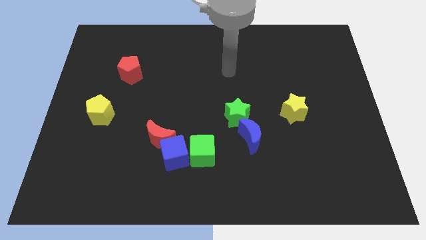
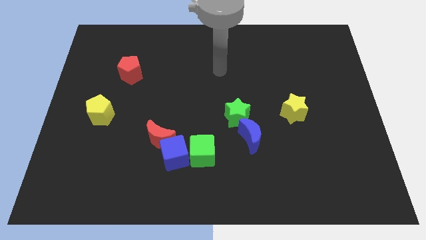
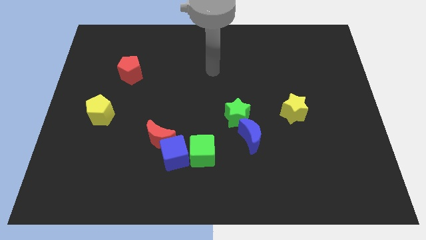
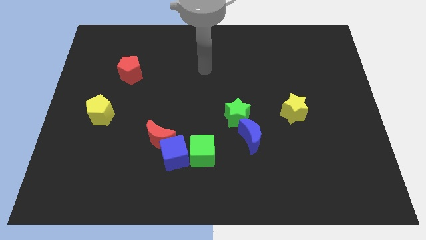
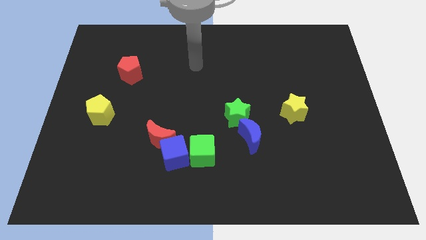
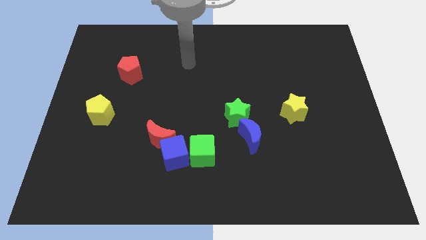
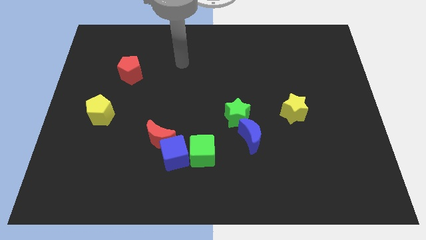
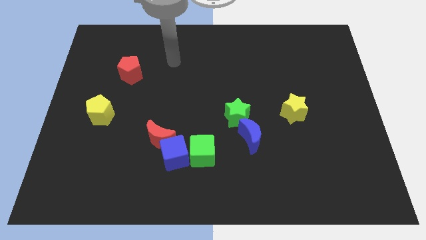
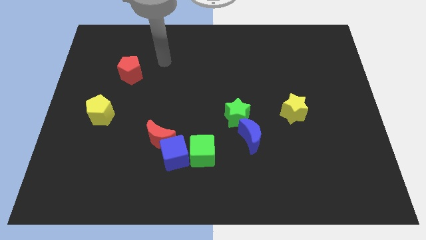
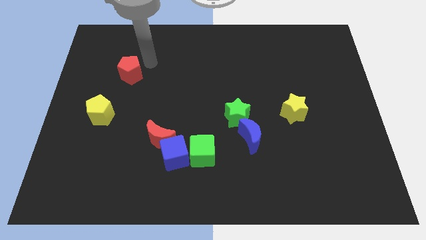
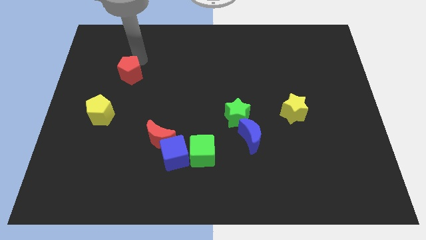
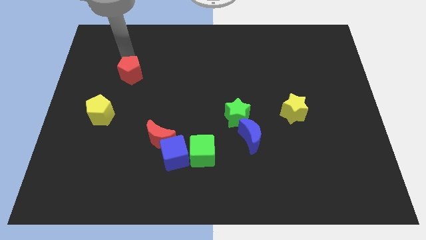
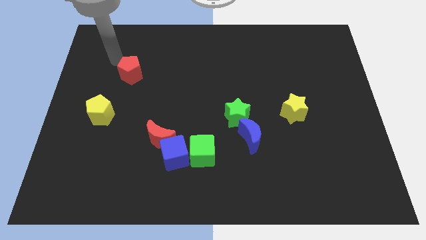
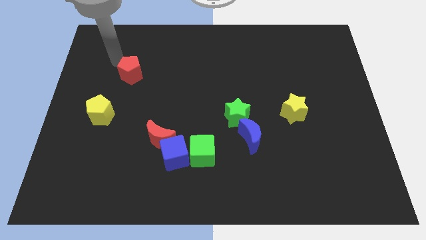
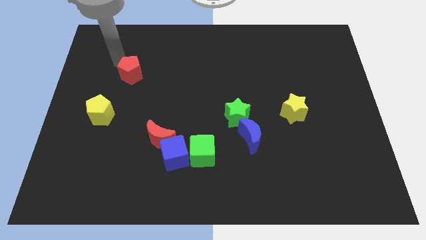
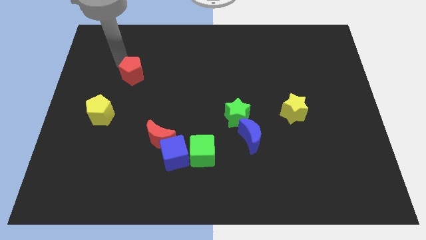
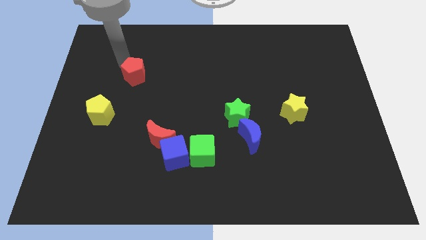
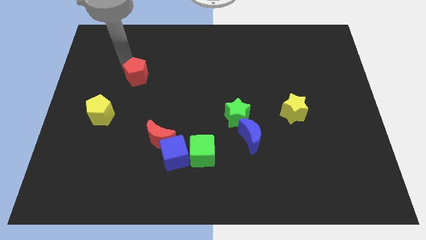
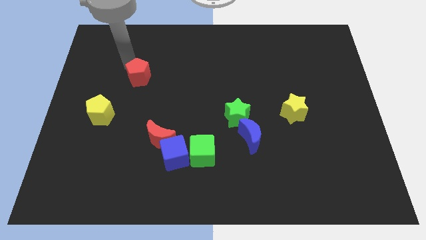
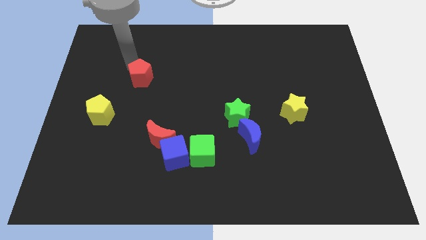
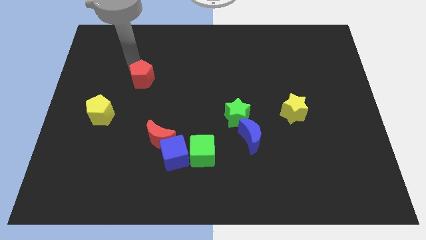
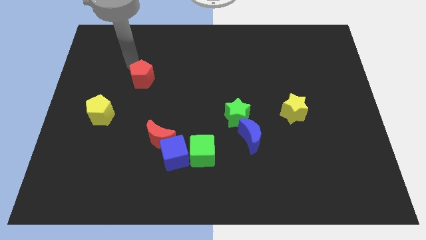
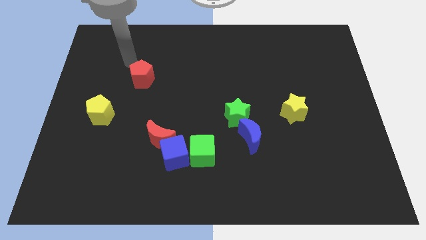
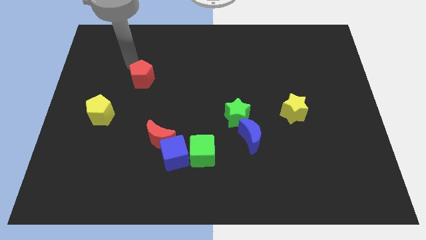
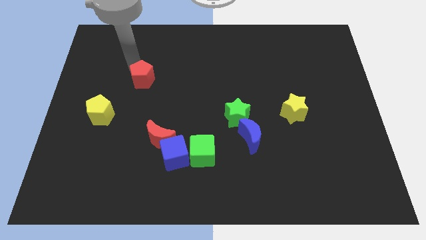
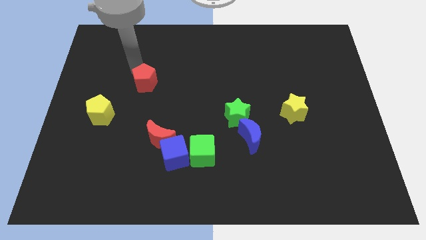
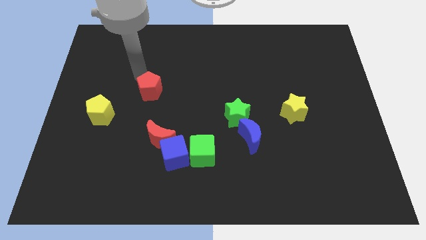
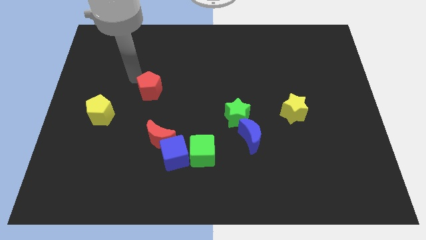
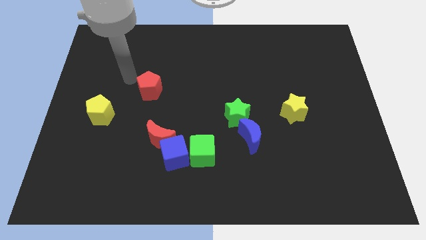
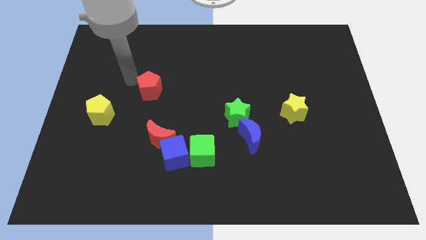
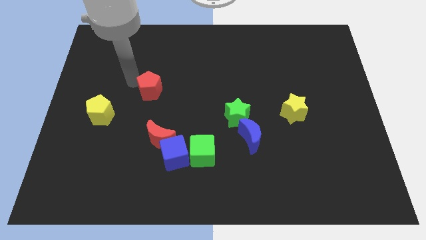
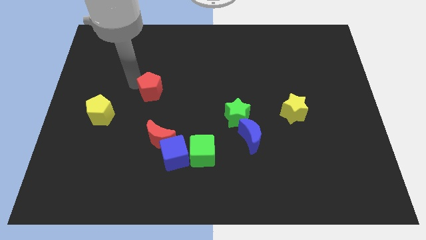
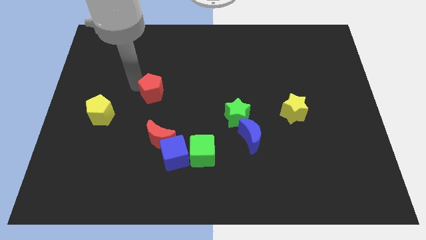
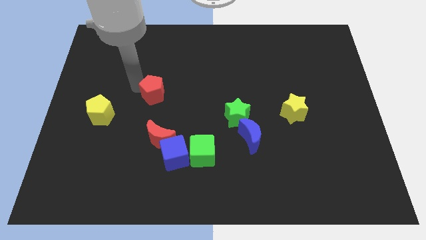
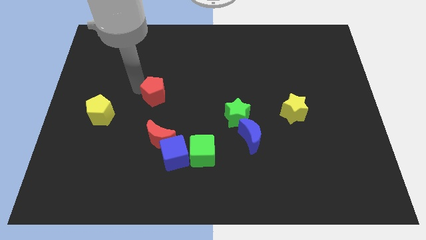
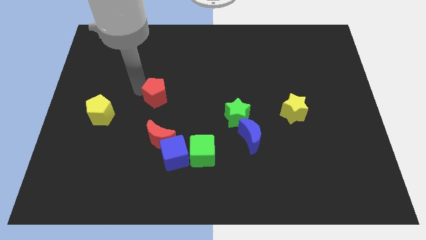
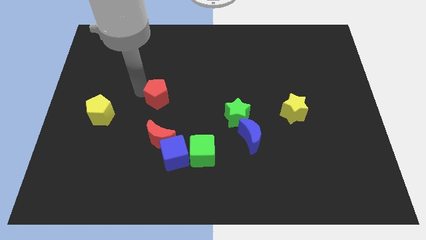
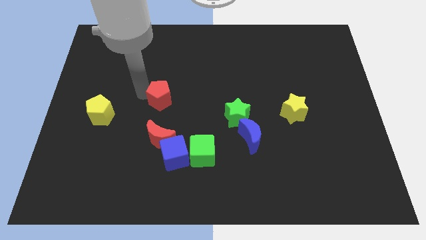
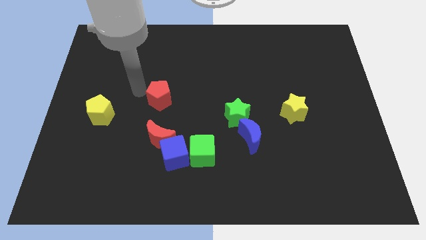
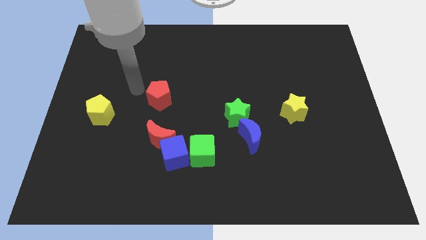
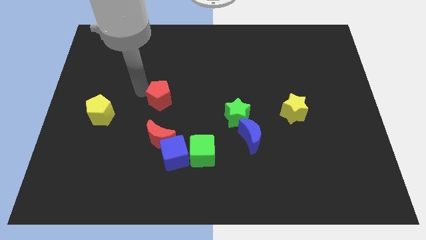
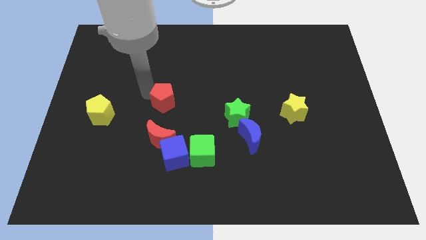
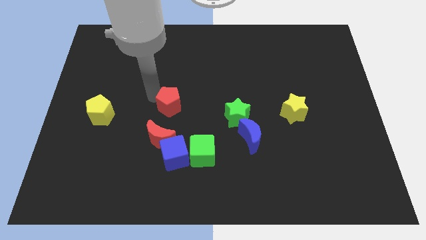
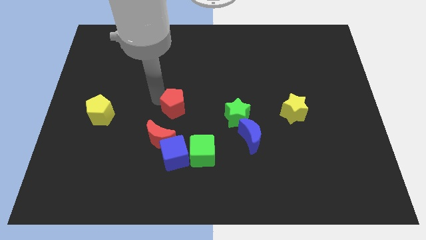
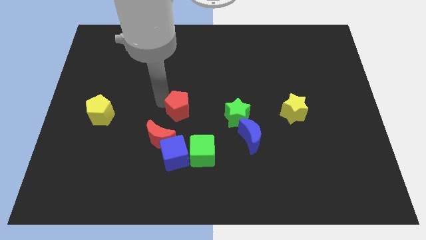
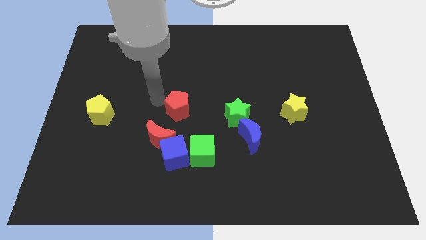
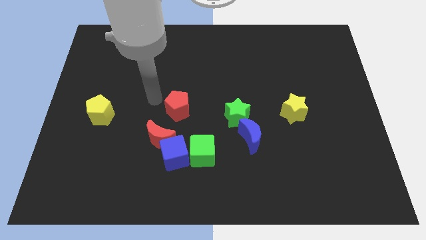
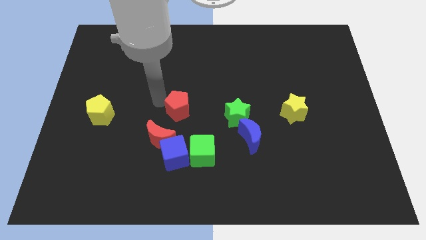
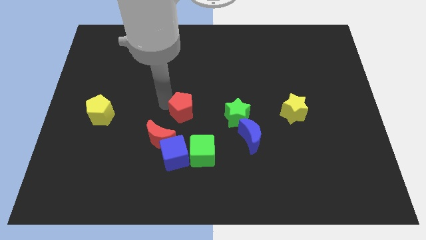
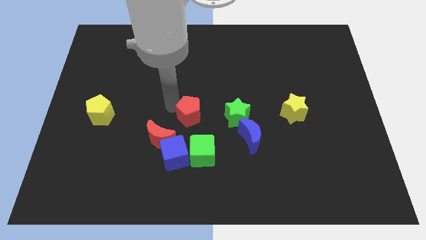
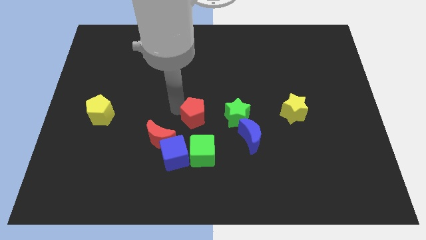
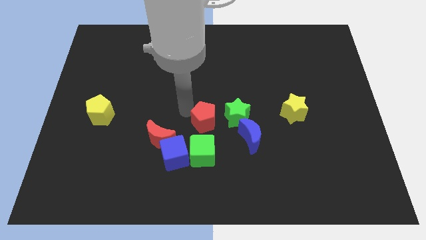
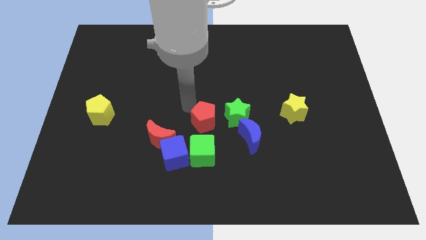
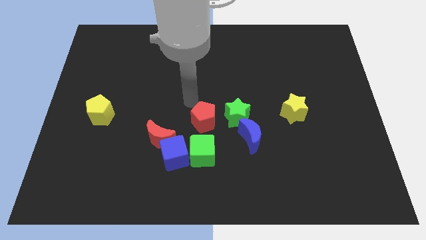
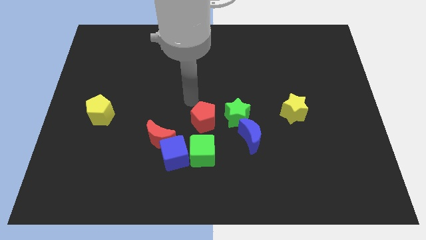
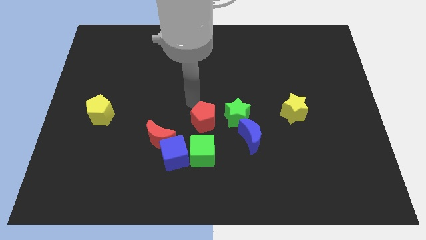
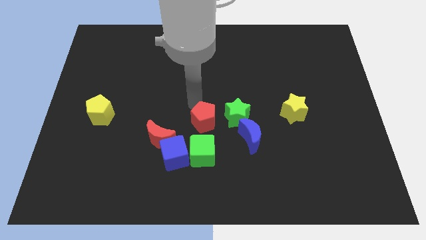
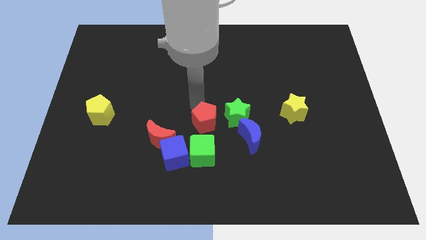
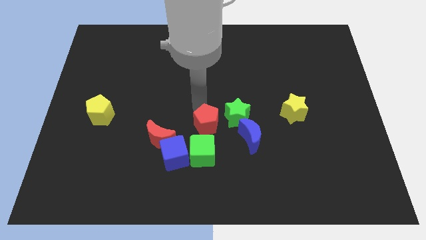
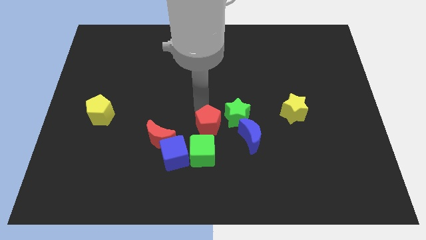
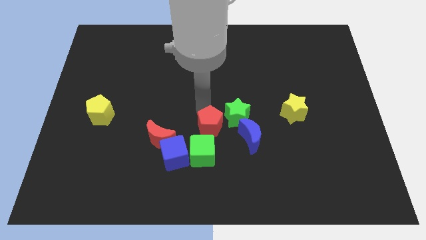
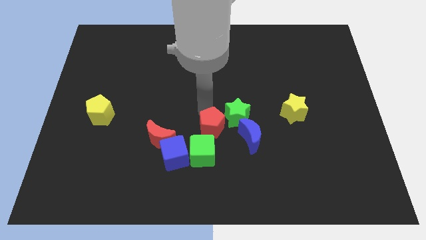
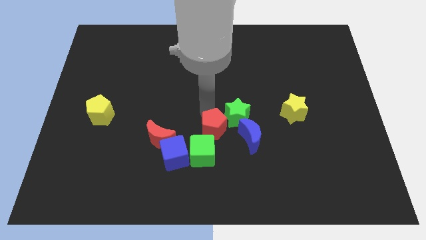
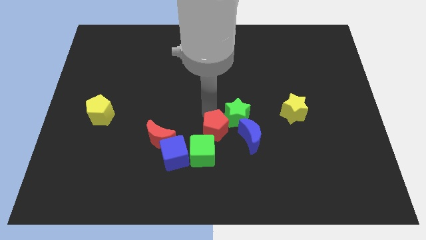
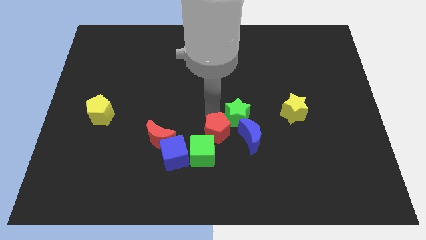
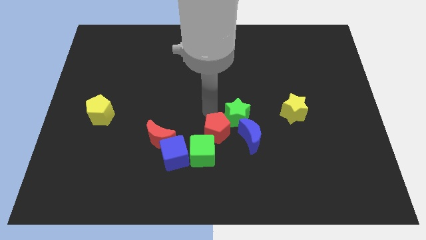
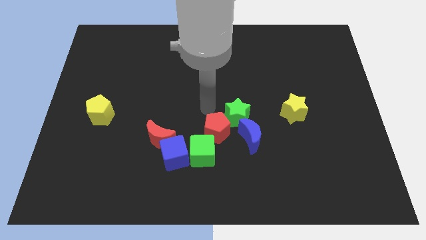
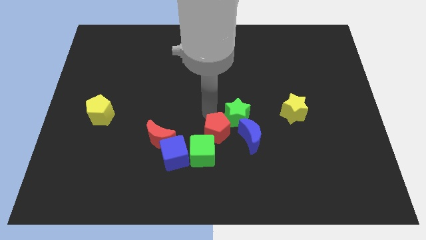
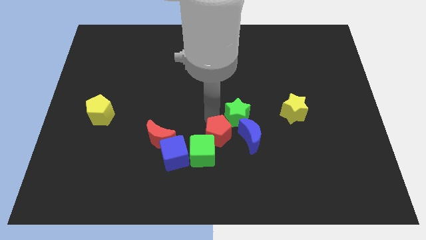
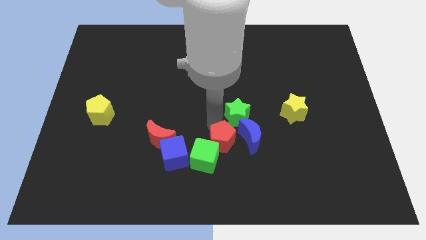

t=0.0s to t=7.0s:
move the red pentagon to the bottom left of the blue moon

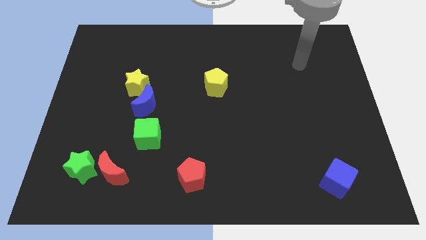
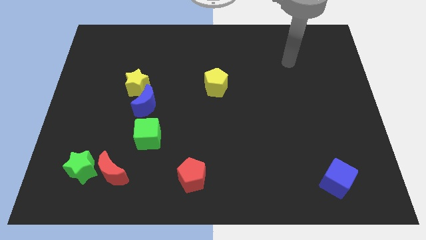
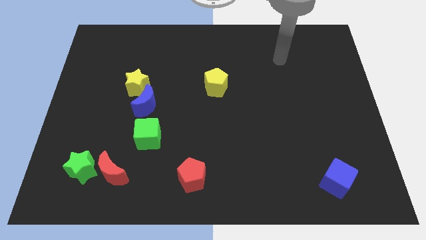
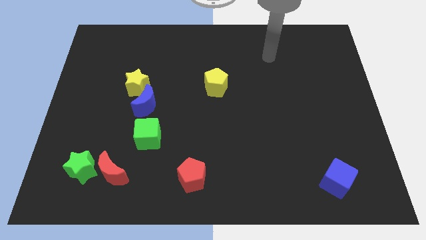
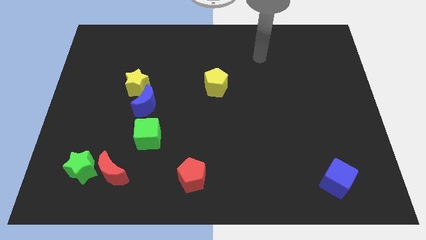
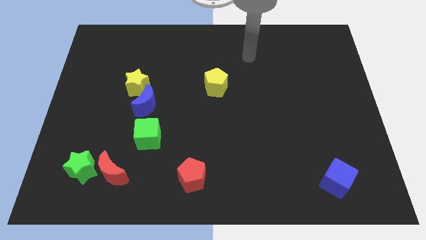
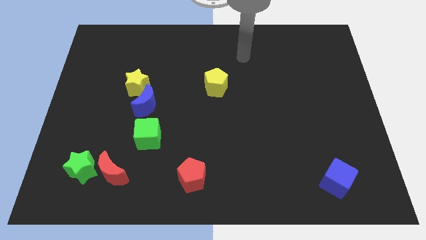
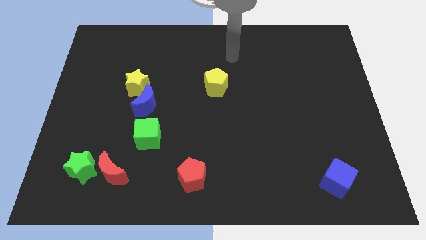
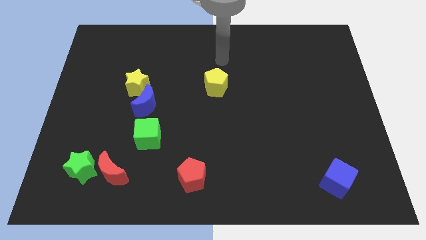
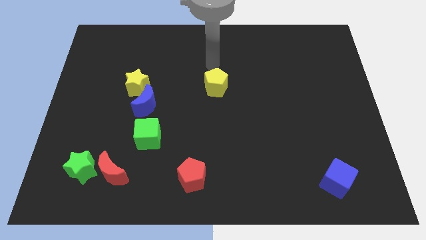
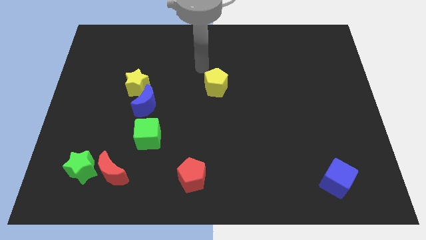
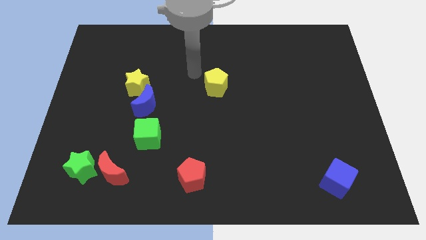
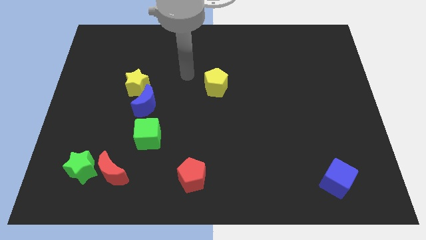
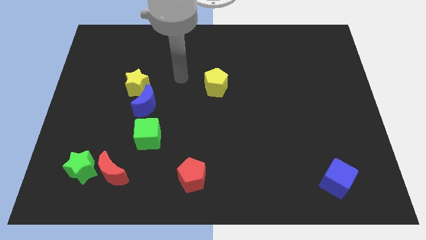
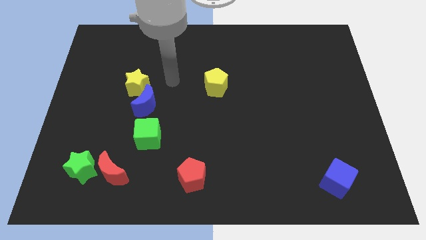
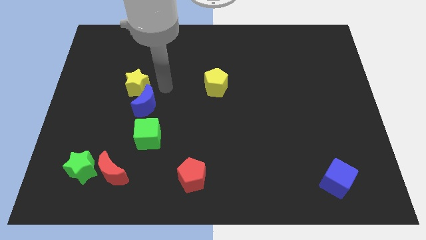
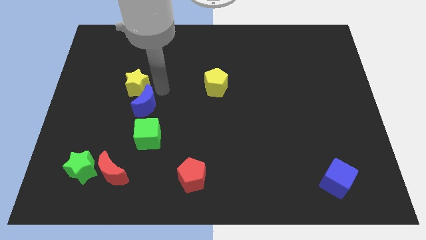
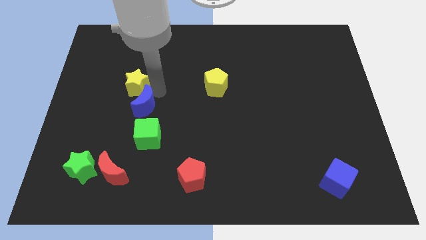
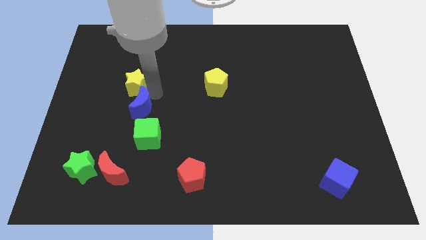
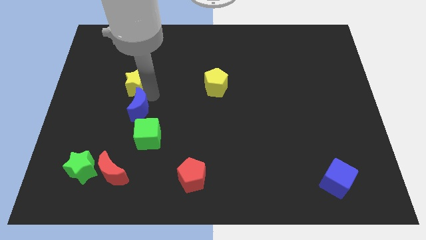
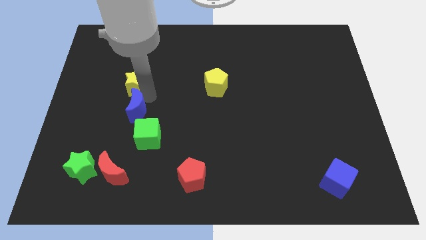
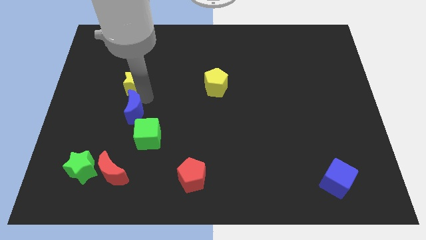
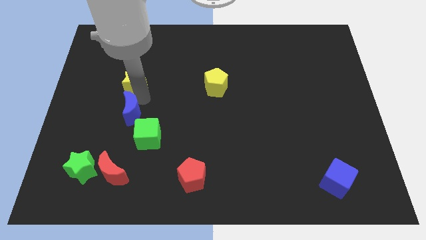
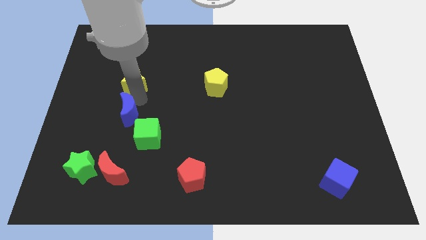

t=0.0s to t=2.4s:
push the blue moon above the red moon
